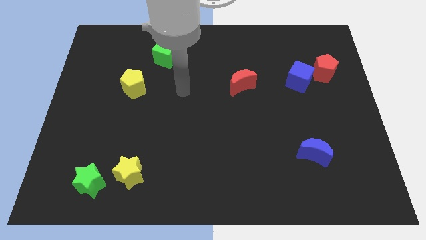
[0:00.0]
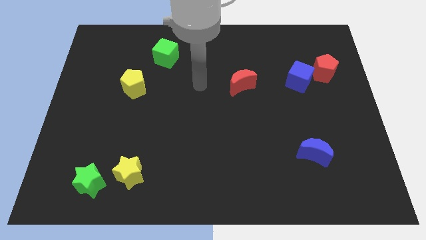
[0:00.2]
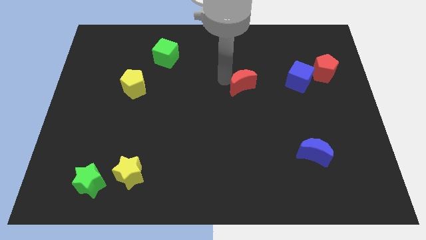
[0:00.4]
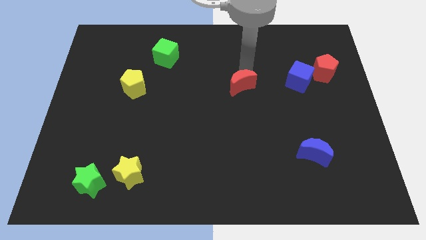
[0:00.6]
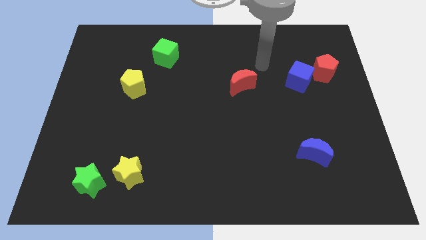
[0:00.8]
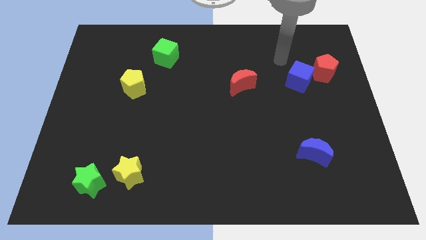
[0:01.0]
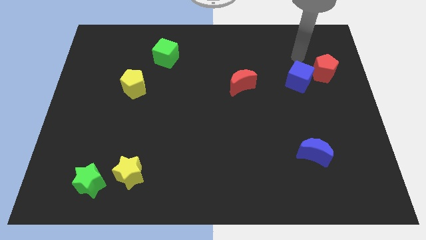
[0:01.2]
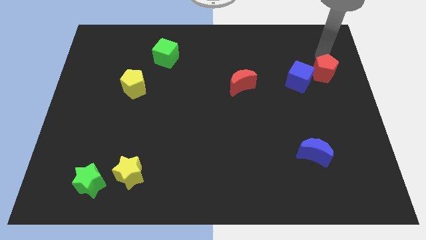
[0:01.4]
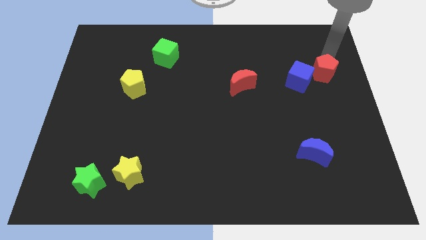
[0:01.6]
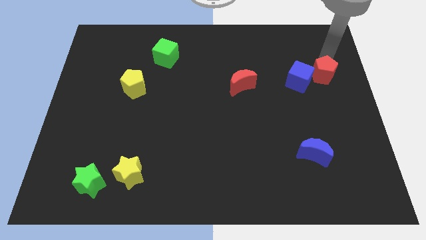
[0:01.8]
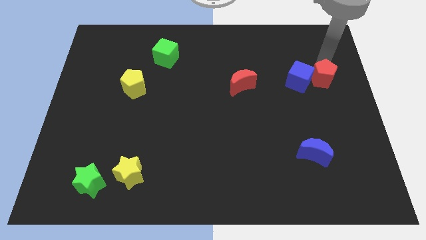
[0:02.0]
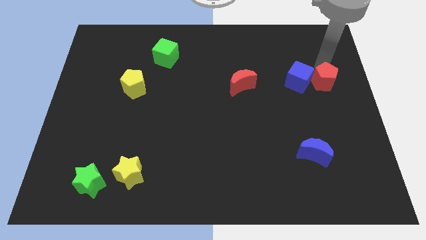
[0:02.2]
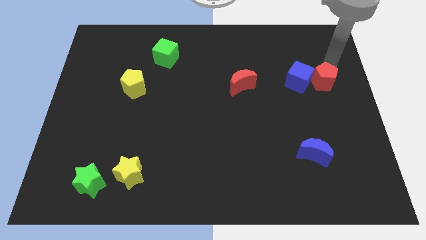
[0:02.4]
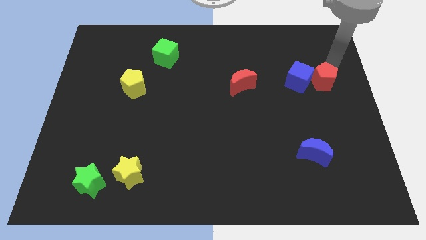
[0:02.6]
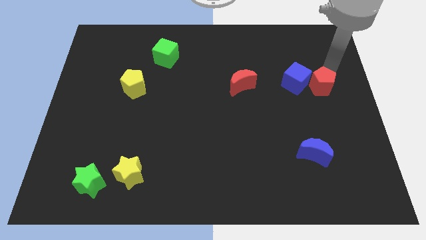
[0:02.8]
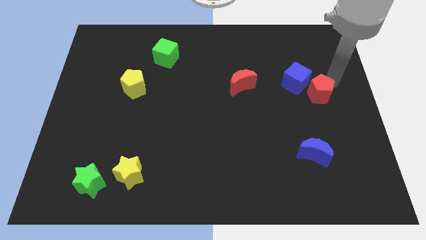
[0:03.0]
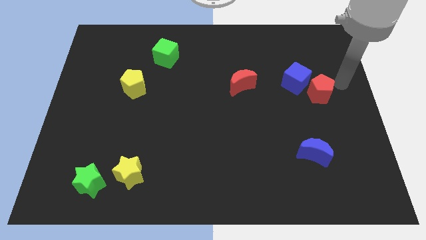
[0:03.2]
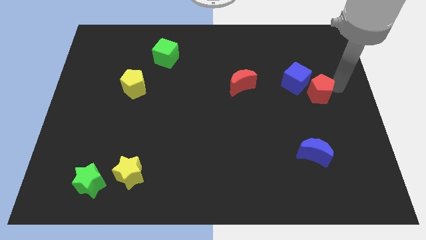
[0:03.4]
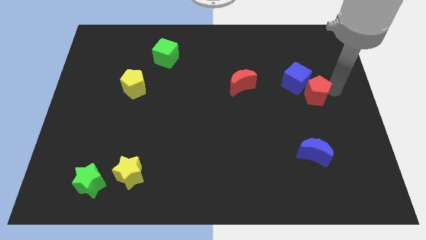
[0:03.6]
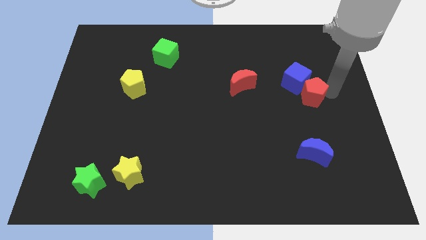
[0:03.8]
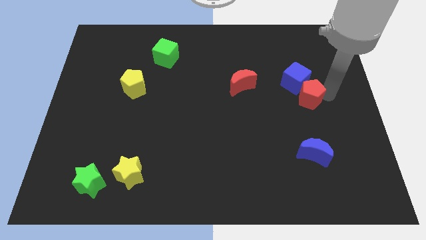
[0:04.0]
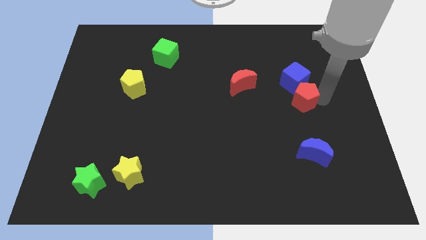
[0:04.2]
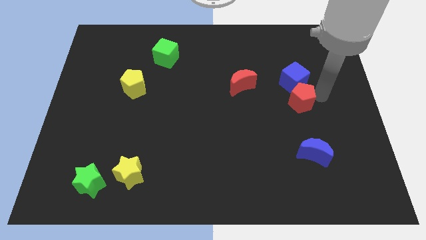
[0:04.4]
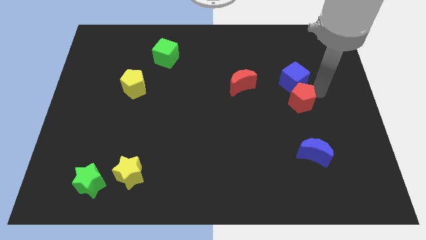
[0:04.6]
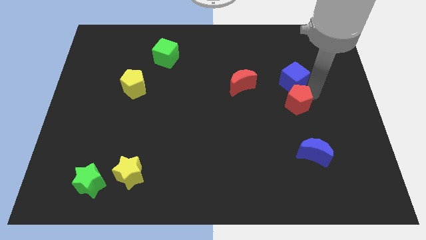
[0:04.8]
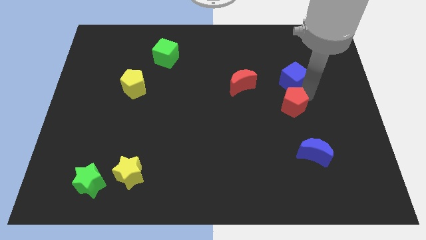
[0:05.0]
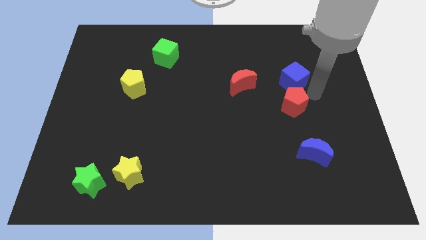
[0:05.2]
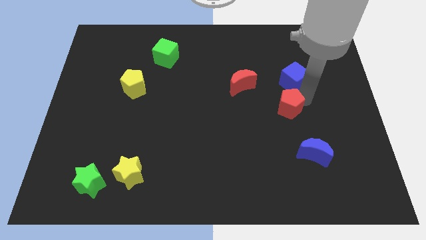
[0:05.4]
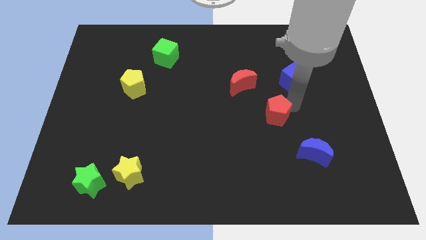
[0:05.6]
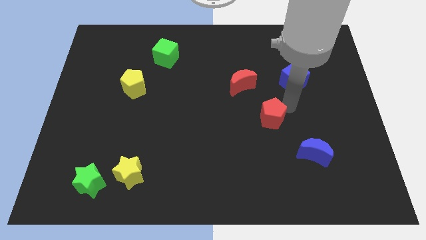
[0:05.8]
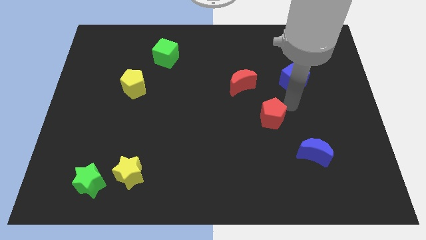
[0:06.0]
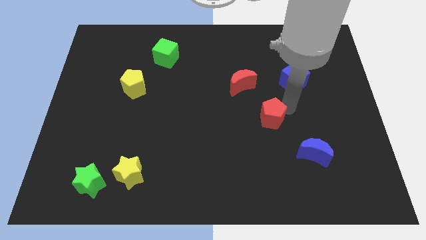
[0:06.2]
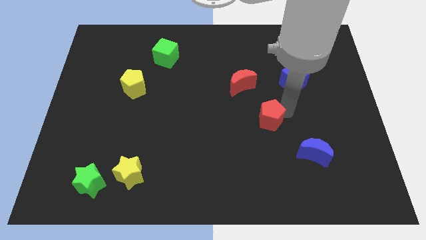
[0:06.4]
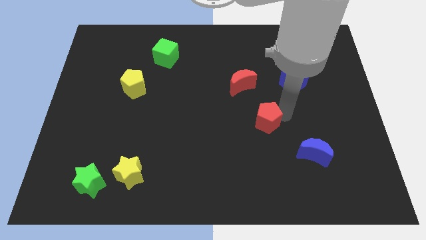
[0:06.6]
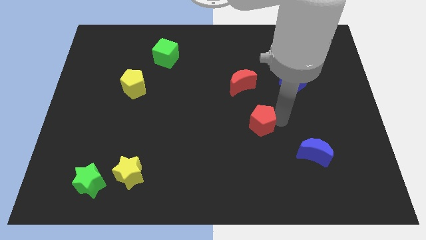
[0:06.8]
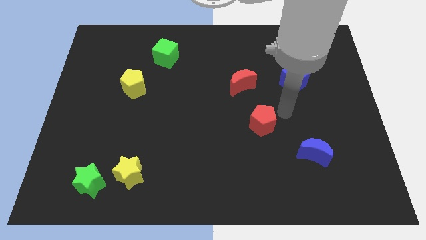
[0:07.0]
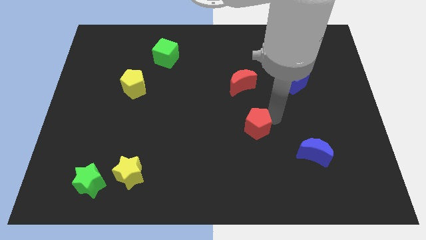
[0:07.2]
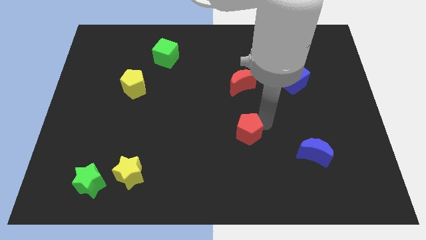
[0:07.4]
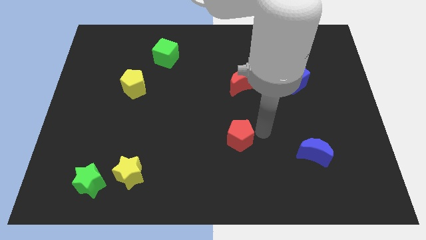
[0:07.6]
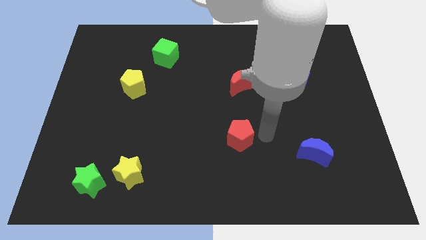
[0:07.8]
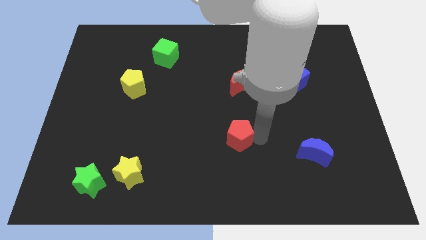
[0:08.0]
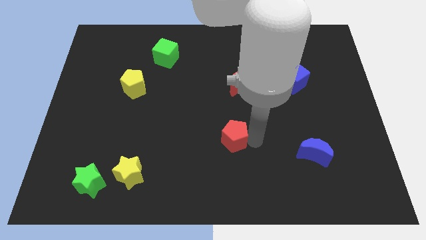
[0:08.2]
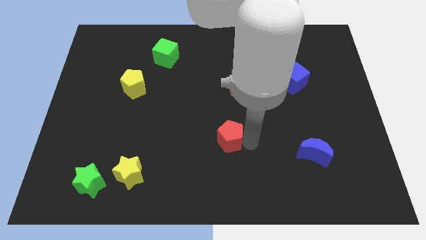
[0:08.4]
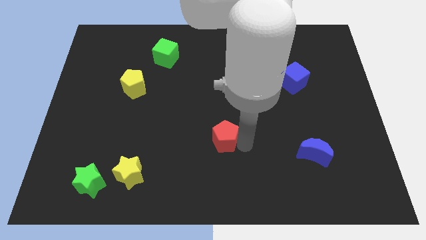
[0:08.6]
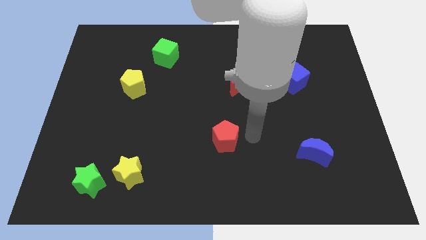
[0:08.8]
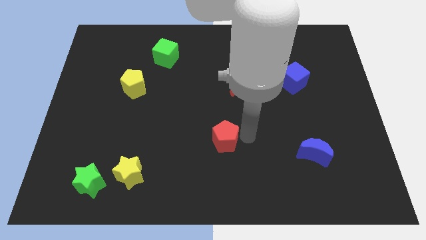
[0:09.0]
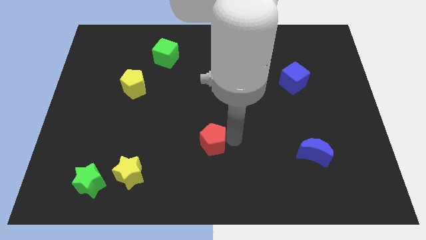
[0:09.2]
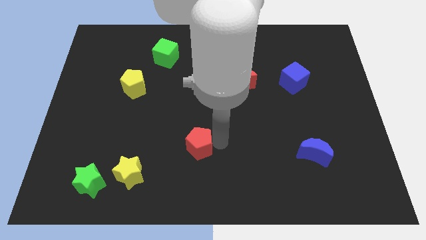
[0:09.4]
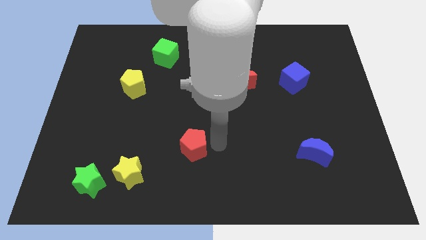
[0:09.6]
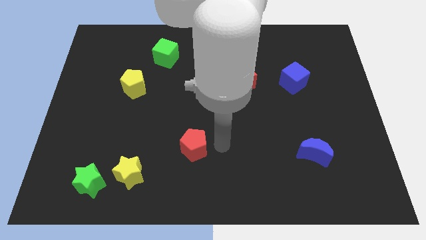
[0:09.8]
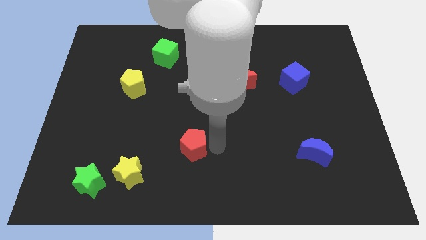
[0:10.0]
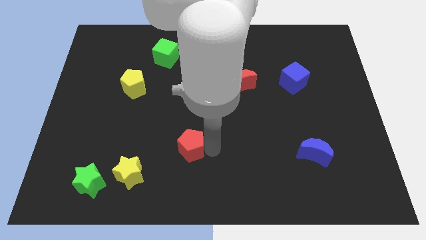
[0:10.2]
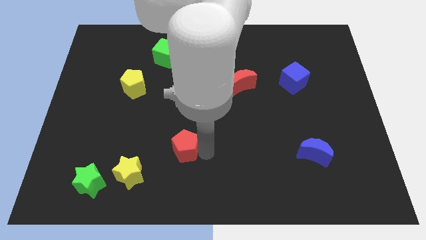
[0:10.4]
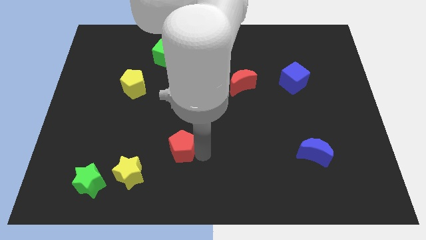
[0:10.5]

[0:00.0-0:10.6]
put the red pentagon to the top right of the yellow star

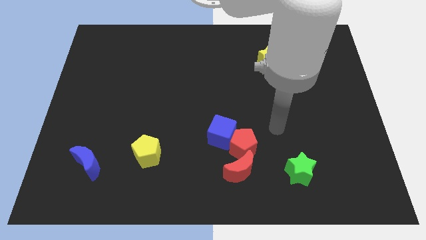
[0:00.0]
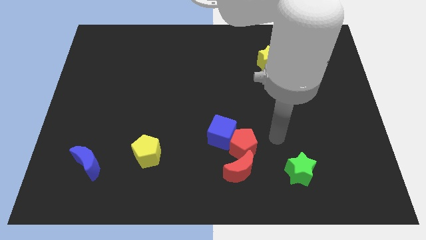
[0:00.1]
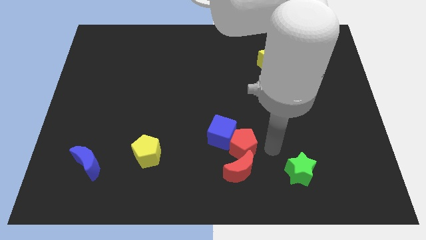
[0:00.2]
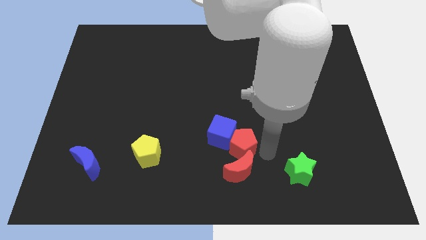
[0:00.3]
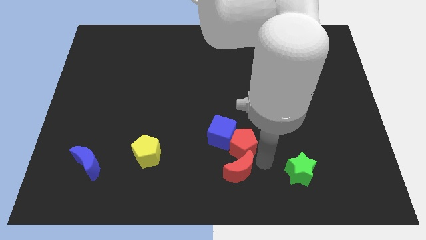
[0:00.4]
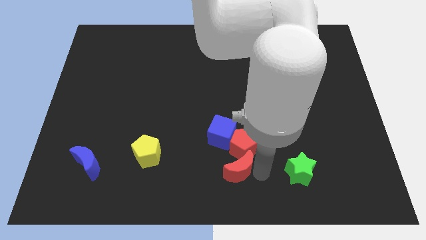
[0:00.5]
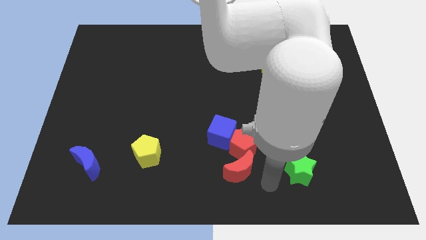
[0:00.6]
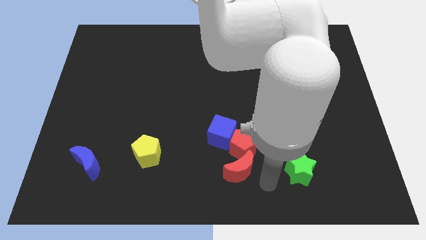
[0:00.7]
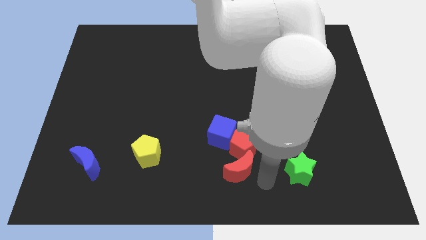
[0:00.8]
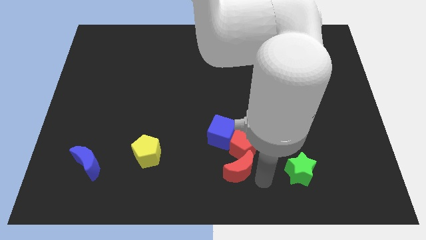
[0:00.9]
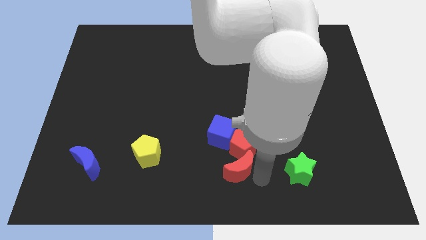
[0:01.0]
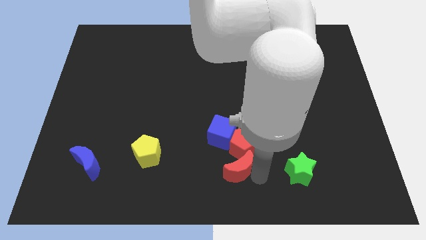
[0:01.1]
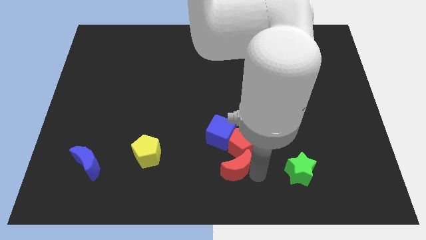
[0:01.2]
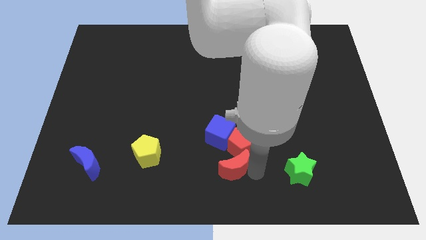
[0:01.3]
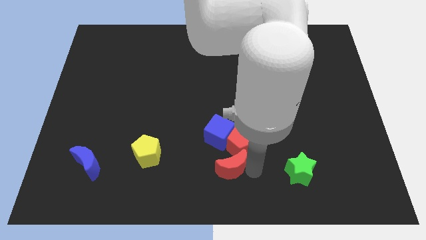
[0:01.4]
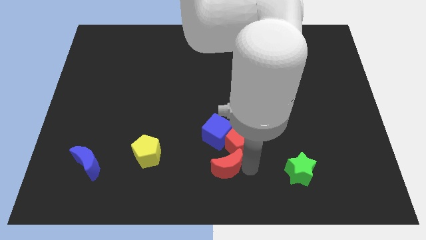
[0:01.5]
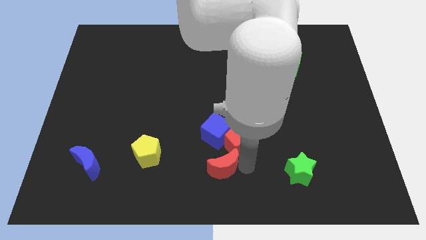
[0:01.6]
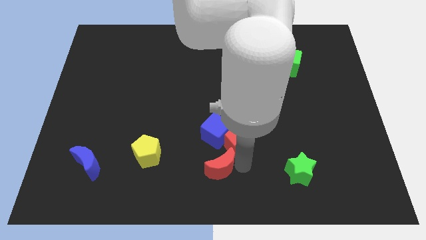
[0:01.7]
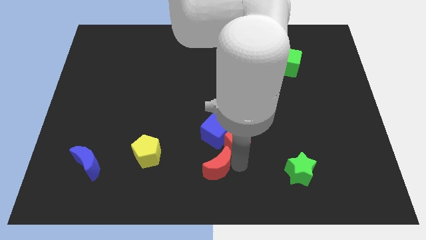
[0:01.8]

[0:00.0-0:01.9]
push the red moon to the right side of the yellow pentagon
